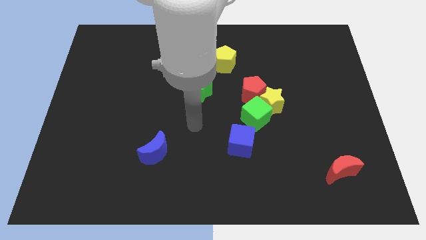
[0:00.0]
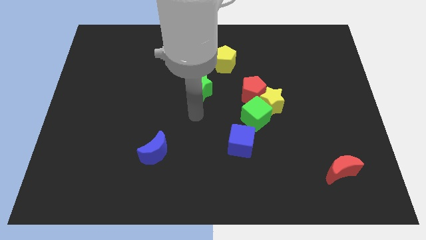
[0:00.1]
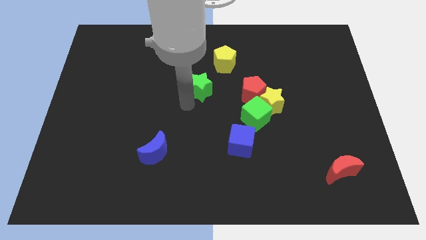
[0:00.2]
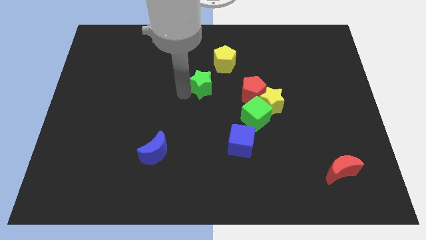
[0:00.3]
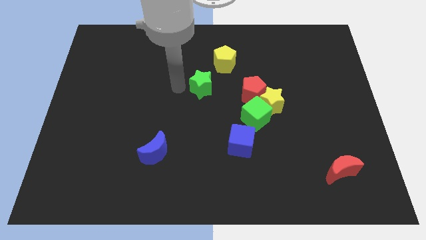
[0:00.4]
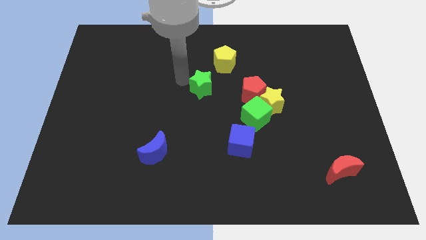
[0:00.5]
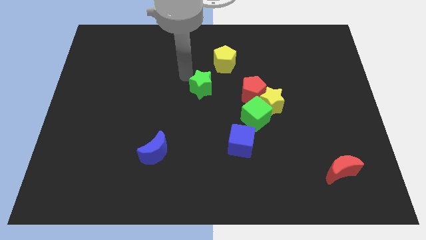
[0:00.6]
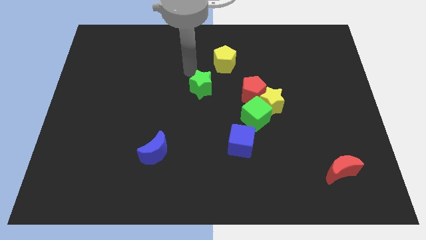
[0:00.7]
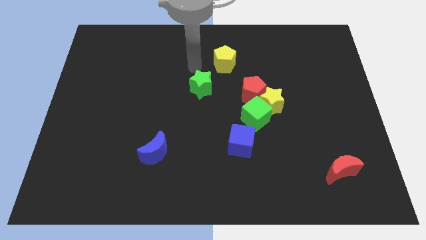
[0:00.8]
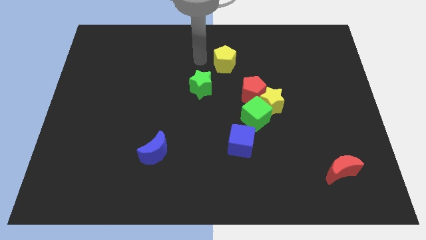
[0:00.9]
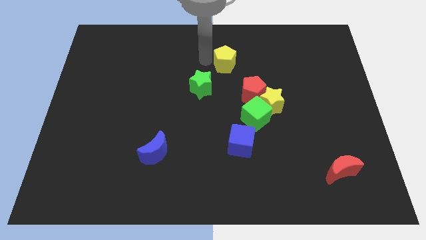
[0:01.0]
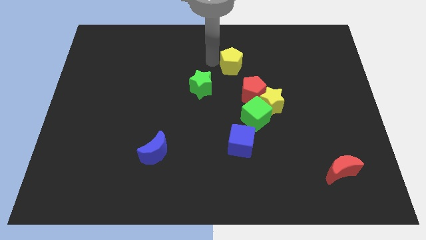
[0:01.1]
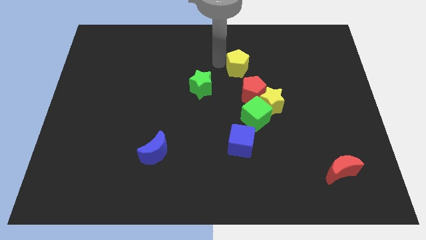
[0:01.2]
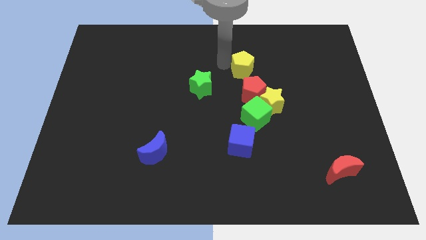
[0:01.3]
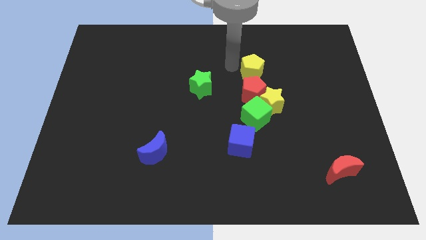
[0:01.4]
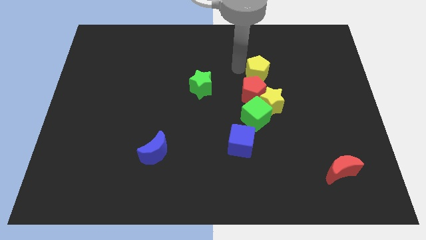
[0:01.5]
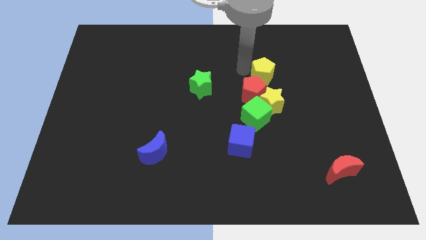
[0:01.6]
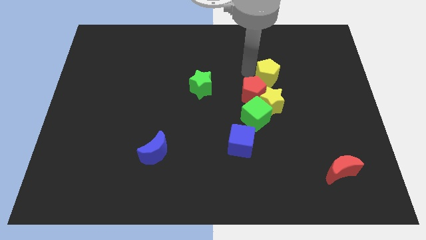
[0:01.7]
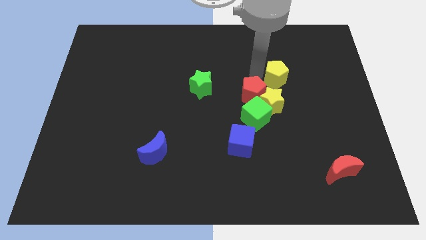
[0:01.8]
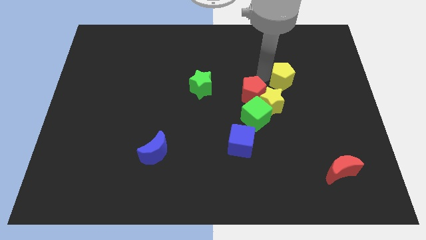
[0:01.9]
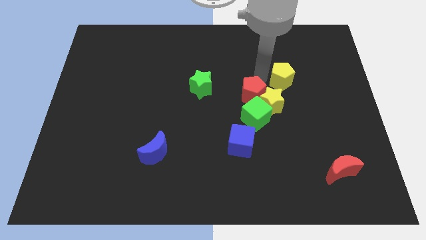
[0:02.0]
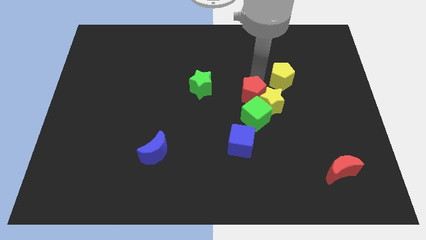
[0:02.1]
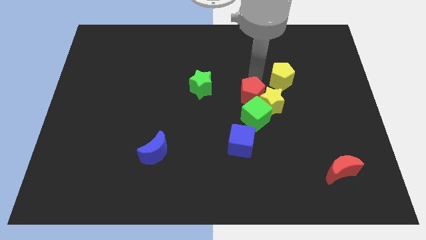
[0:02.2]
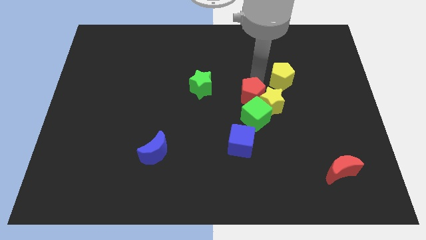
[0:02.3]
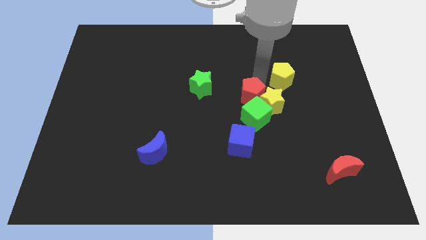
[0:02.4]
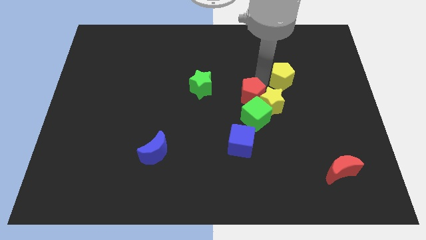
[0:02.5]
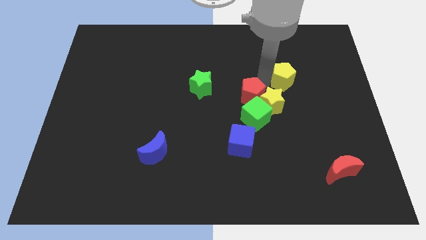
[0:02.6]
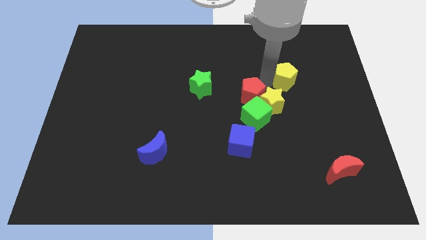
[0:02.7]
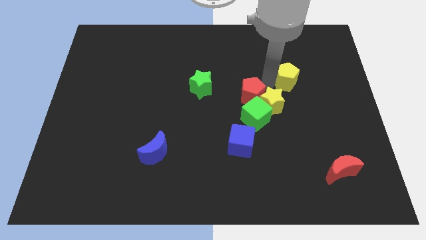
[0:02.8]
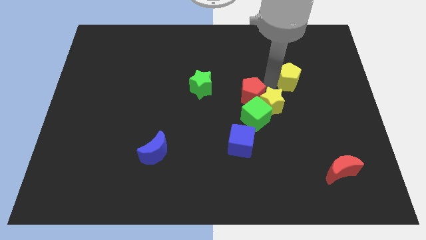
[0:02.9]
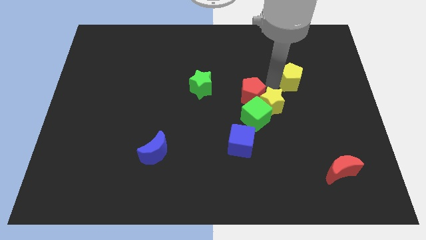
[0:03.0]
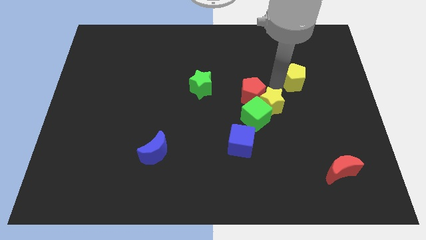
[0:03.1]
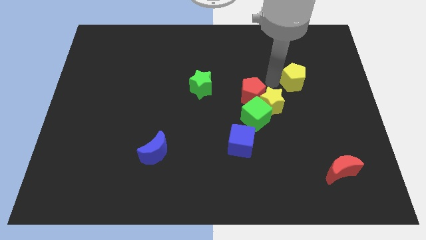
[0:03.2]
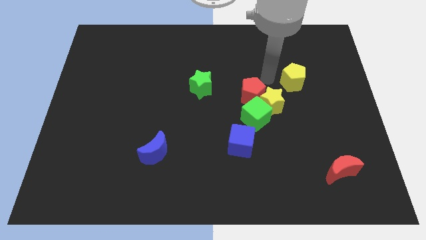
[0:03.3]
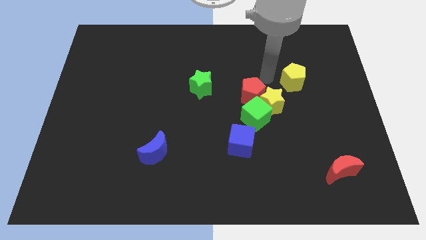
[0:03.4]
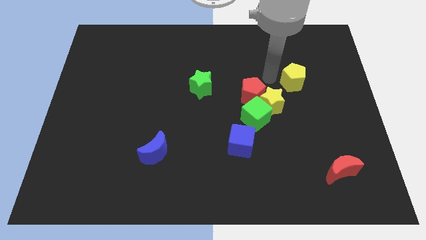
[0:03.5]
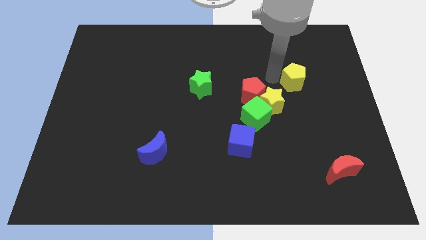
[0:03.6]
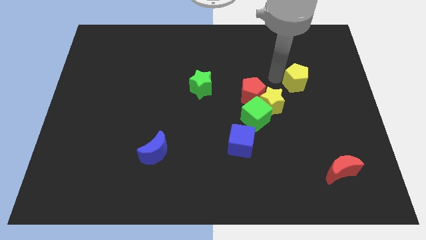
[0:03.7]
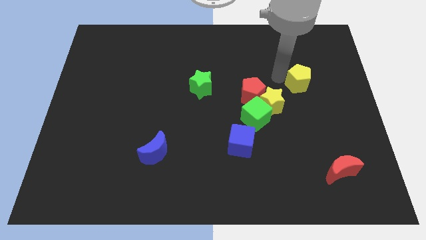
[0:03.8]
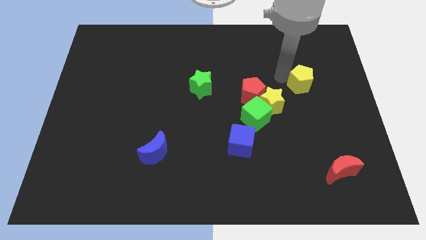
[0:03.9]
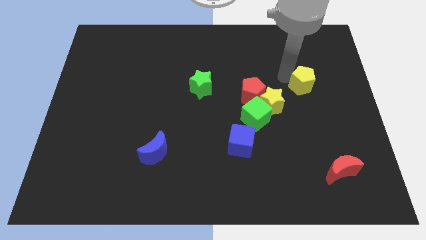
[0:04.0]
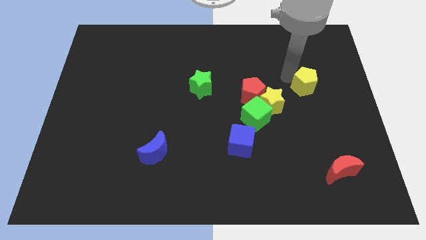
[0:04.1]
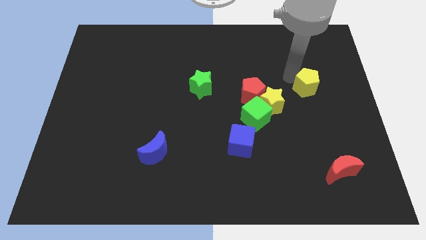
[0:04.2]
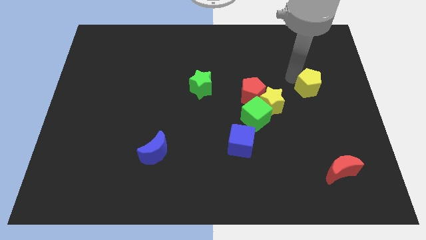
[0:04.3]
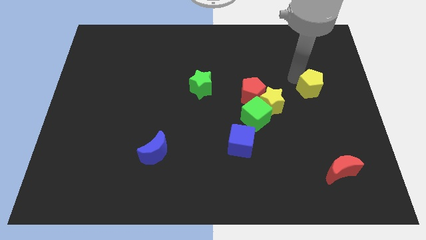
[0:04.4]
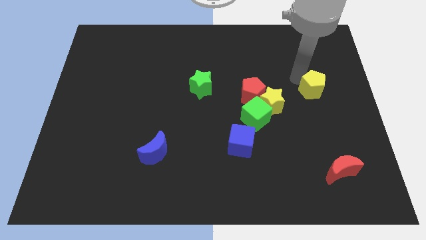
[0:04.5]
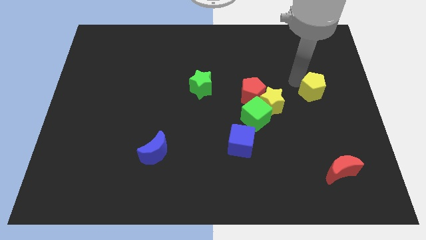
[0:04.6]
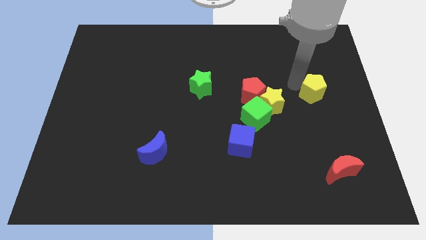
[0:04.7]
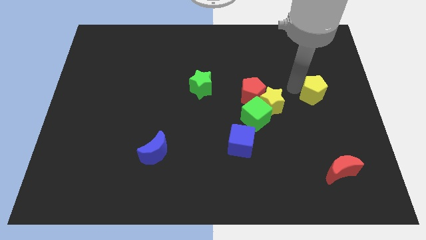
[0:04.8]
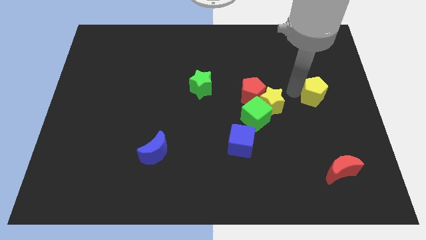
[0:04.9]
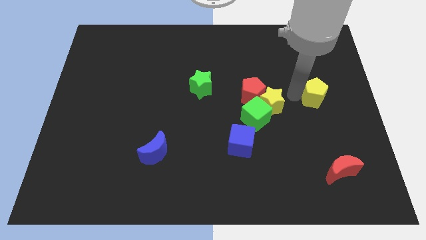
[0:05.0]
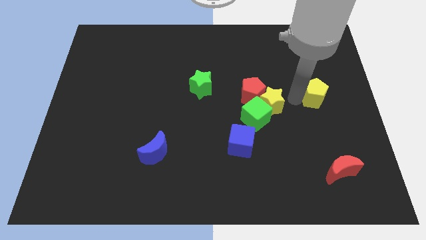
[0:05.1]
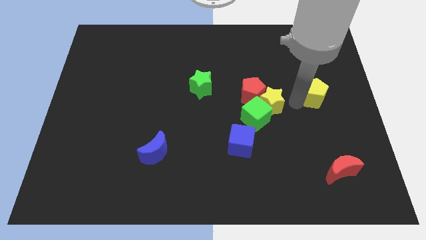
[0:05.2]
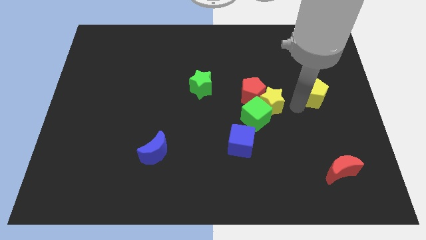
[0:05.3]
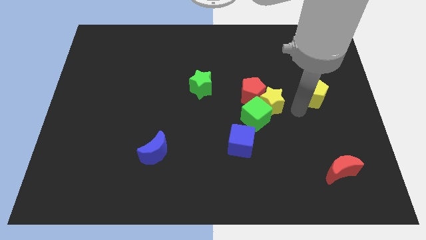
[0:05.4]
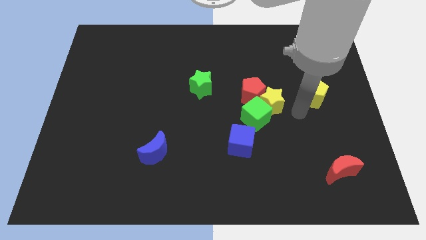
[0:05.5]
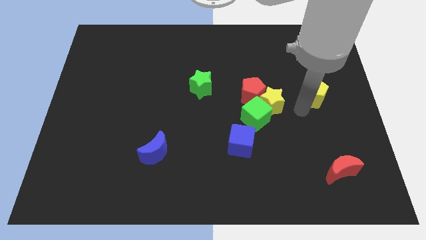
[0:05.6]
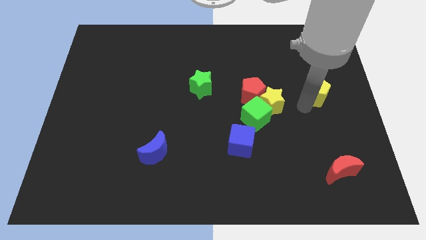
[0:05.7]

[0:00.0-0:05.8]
push the yellow pentagon to the center right

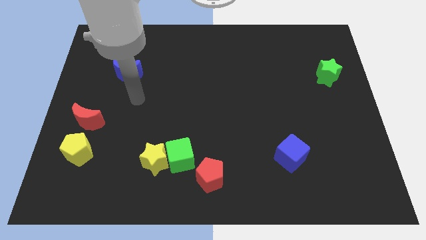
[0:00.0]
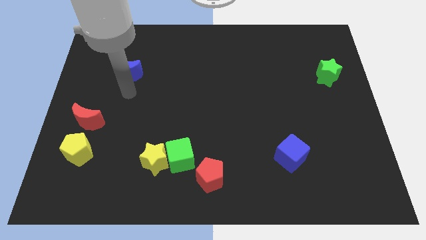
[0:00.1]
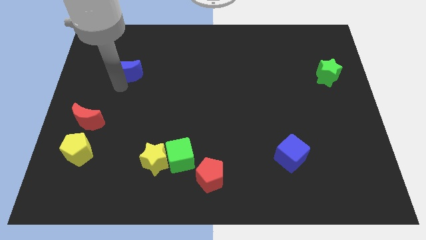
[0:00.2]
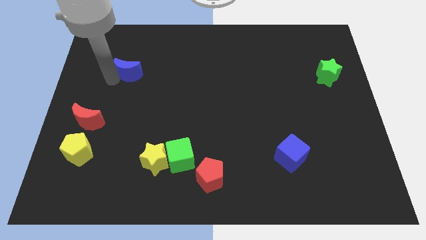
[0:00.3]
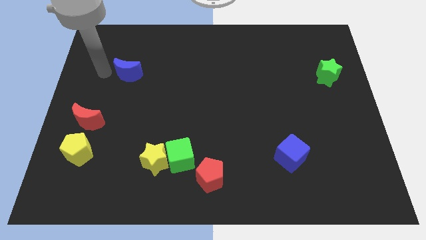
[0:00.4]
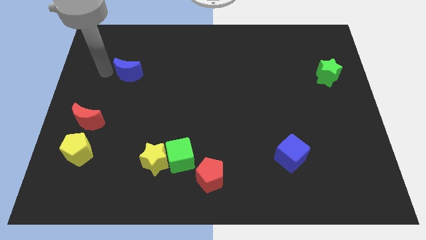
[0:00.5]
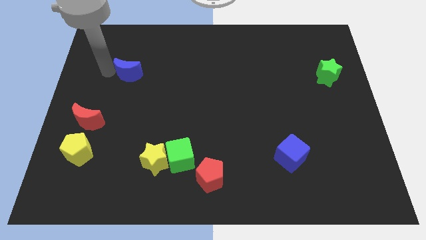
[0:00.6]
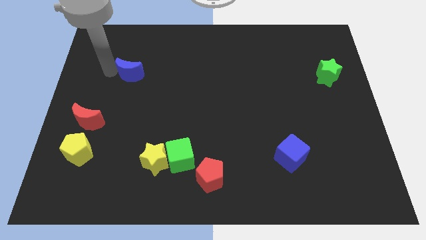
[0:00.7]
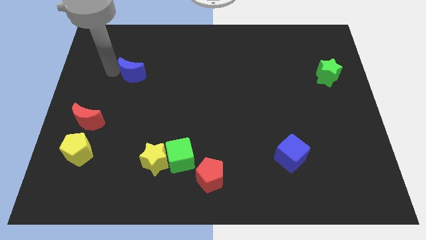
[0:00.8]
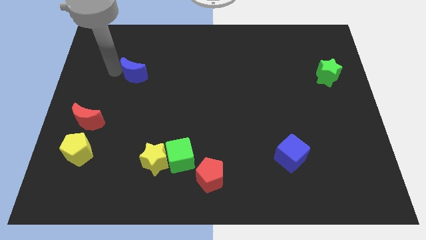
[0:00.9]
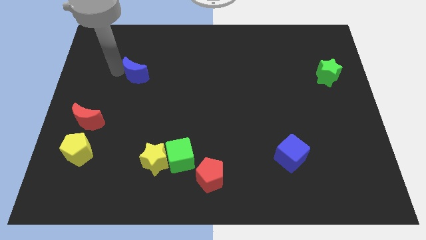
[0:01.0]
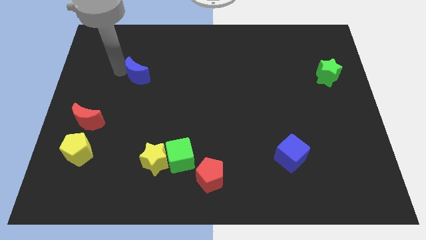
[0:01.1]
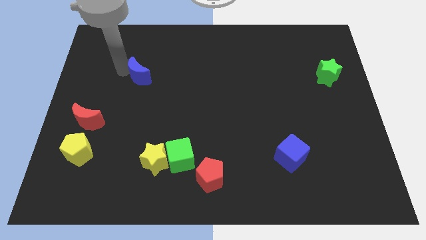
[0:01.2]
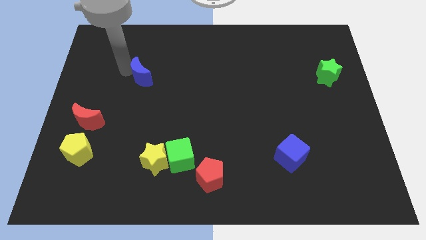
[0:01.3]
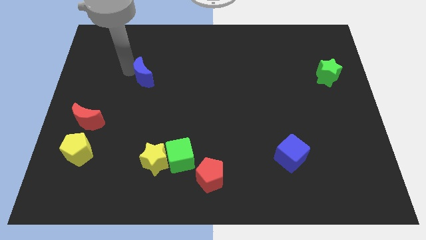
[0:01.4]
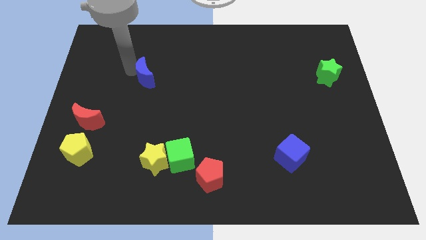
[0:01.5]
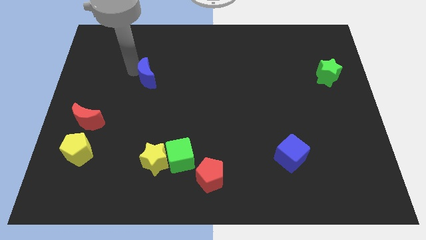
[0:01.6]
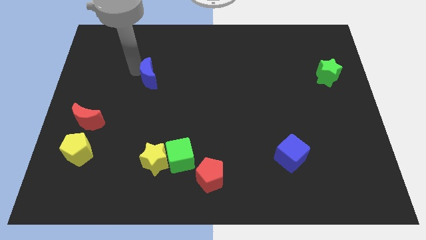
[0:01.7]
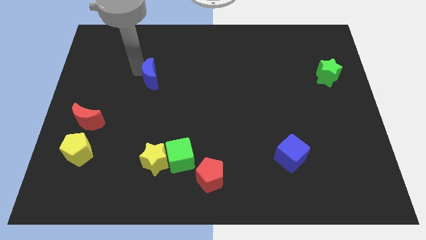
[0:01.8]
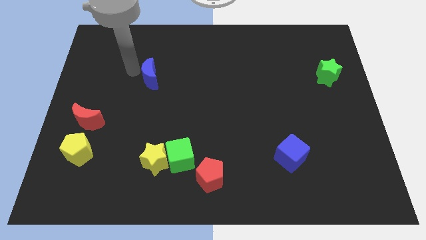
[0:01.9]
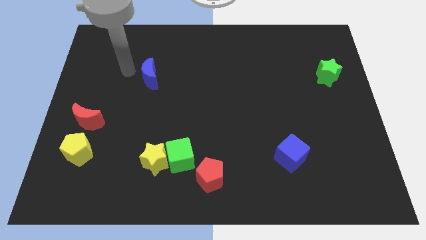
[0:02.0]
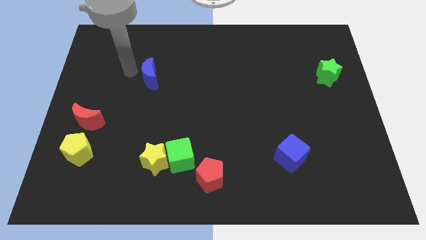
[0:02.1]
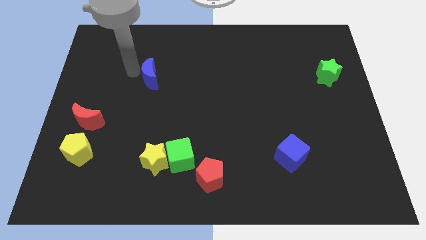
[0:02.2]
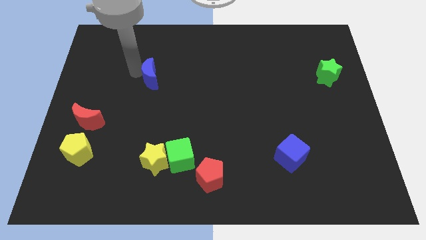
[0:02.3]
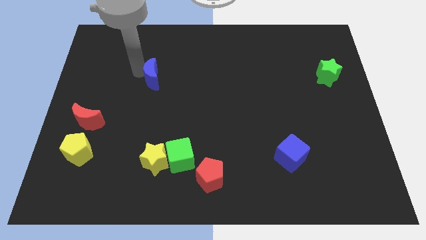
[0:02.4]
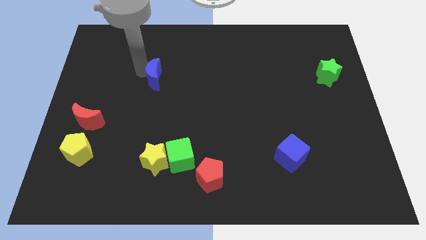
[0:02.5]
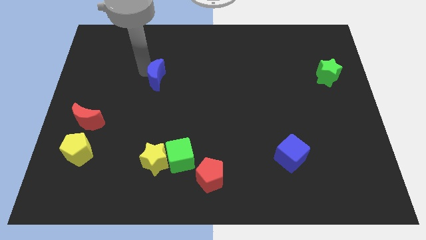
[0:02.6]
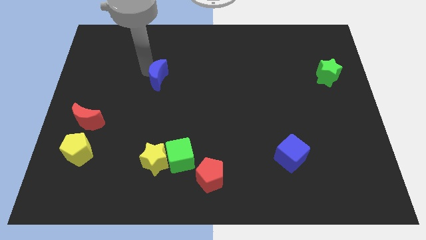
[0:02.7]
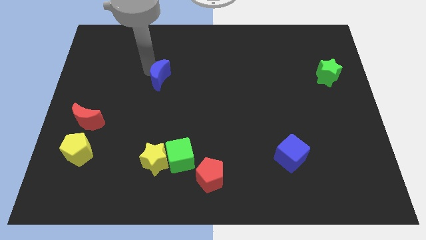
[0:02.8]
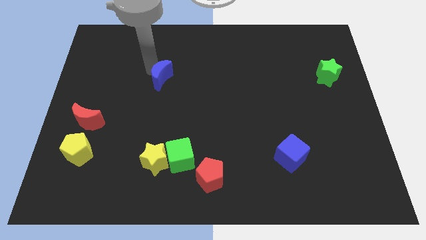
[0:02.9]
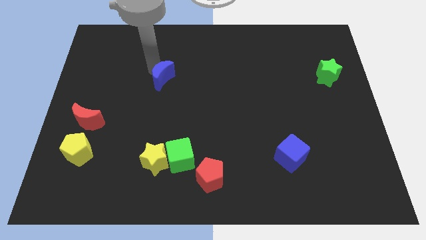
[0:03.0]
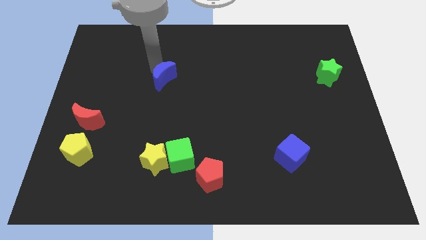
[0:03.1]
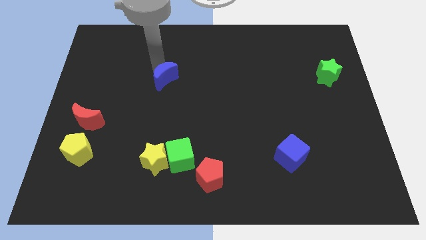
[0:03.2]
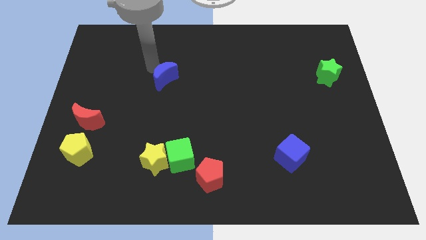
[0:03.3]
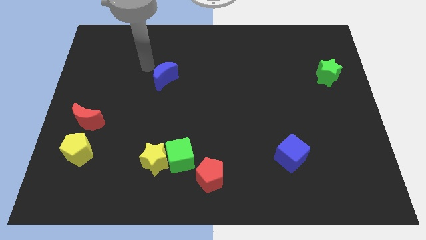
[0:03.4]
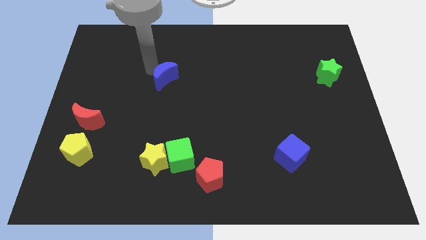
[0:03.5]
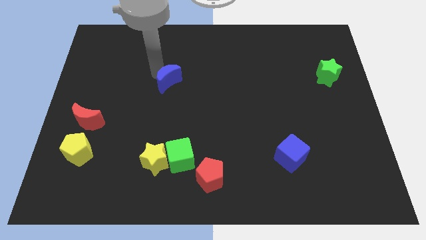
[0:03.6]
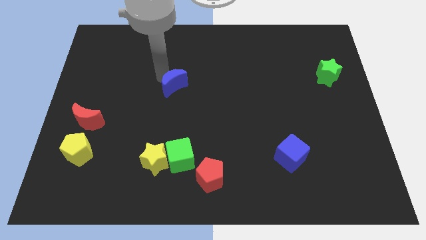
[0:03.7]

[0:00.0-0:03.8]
put the blue moon to the center of the board
